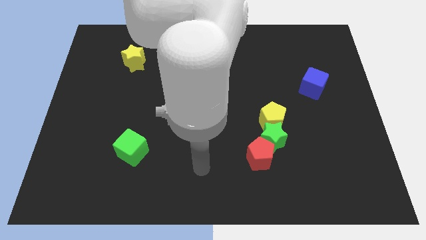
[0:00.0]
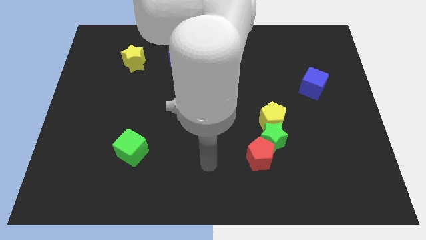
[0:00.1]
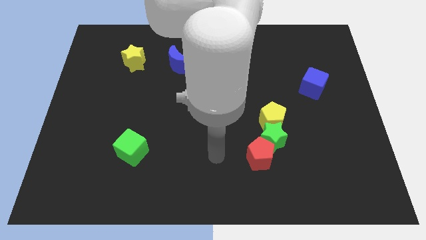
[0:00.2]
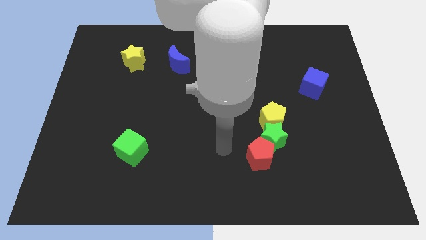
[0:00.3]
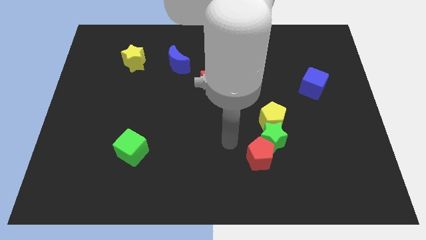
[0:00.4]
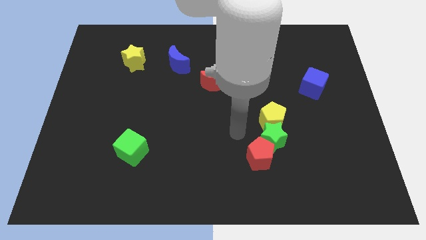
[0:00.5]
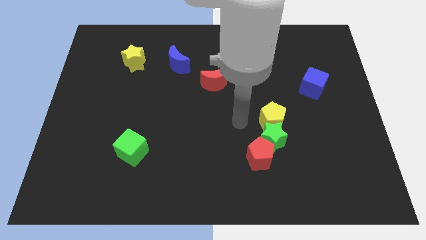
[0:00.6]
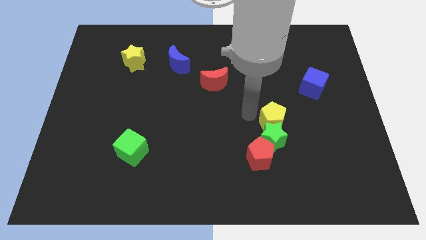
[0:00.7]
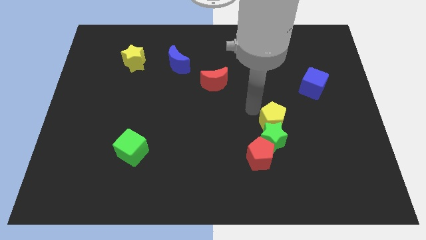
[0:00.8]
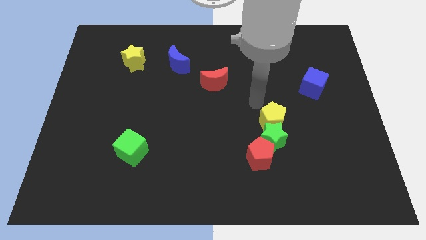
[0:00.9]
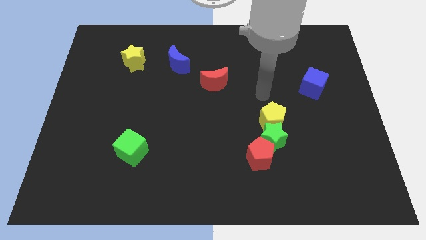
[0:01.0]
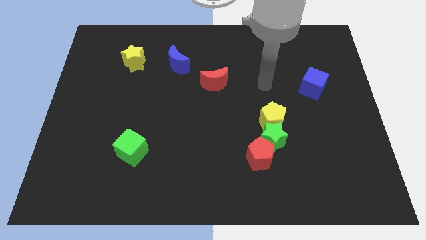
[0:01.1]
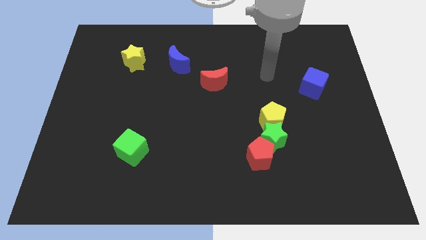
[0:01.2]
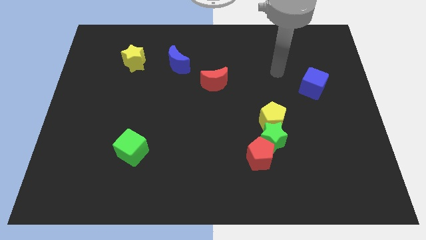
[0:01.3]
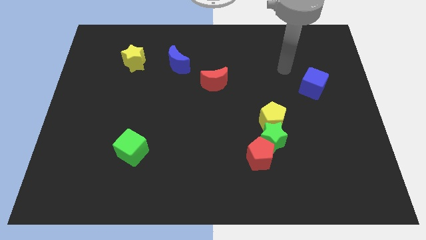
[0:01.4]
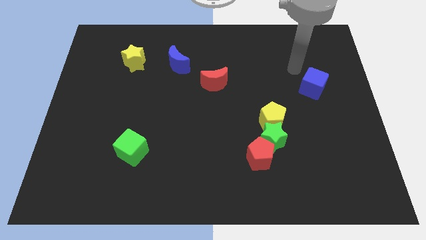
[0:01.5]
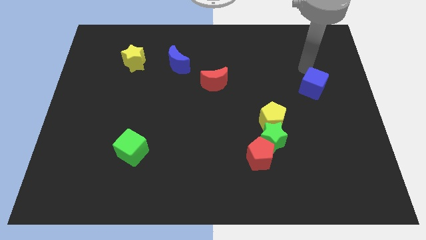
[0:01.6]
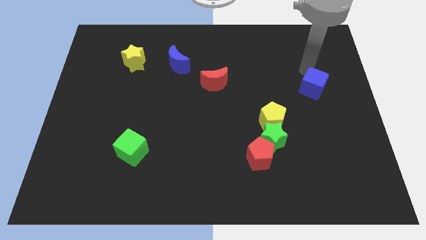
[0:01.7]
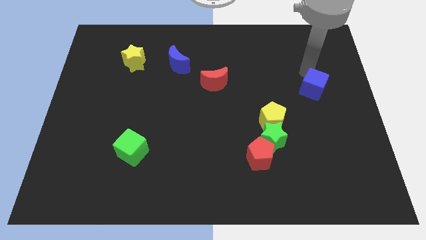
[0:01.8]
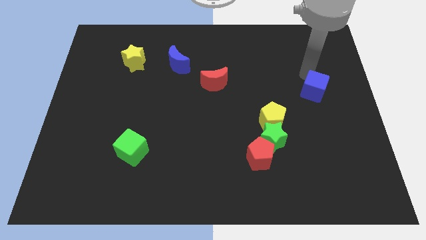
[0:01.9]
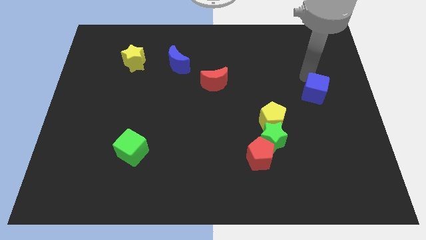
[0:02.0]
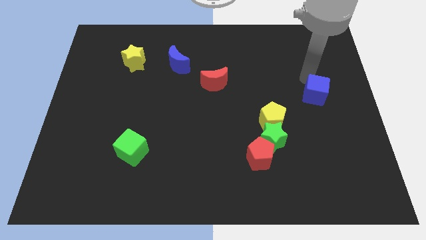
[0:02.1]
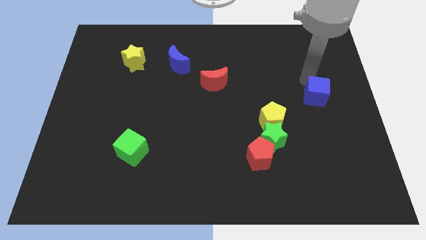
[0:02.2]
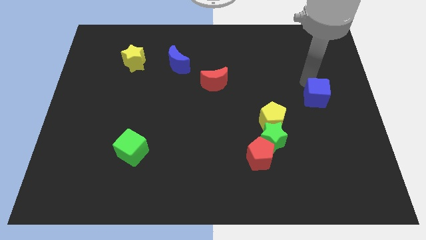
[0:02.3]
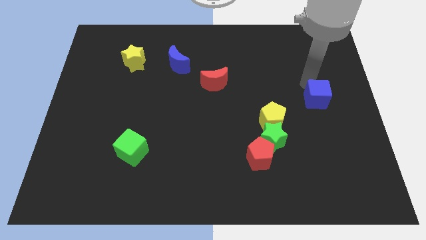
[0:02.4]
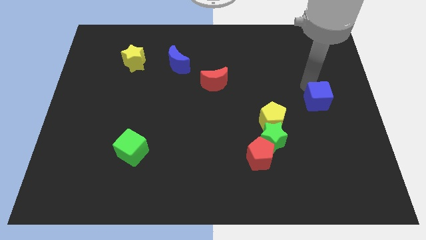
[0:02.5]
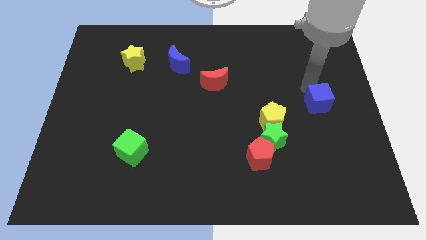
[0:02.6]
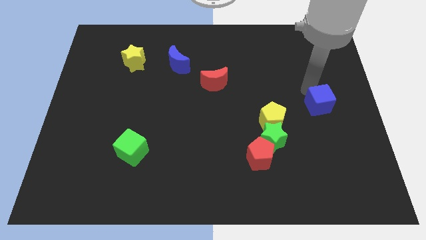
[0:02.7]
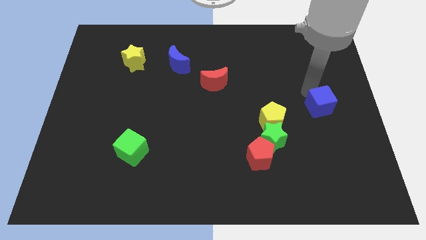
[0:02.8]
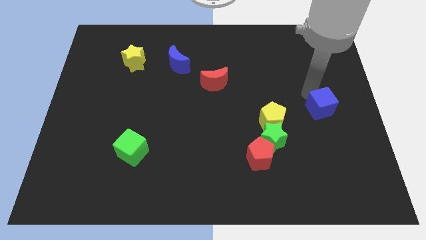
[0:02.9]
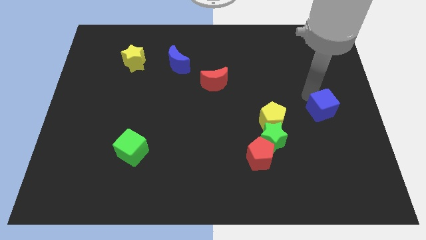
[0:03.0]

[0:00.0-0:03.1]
move the blue cube down a little

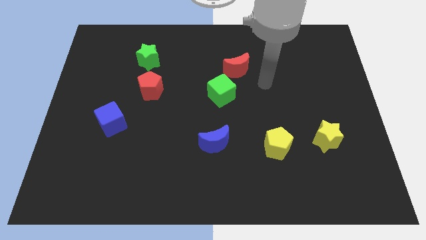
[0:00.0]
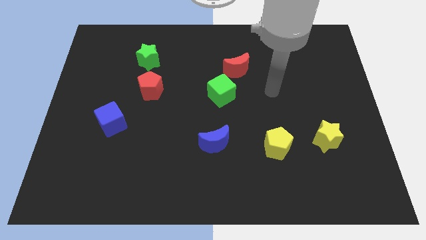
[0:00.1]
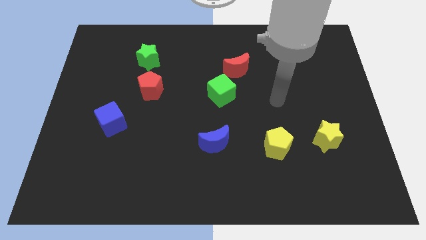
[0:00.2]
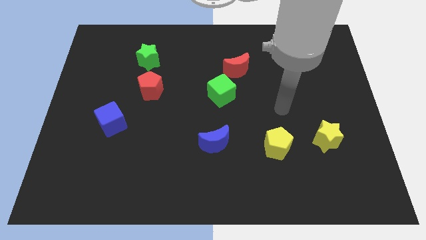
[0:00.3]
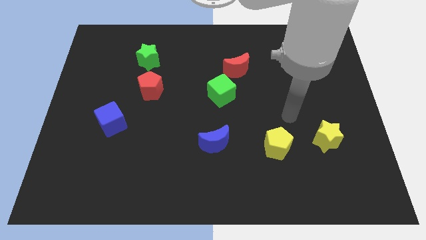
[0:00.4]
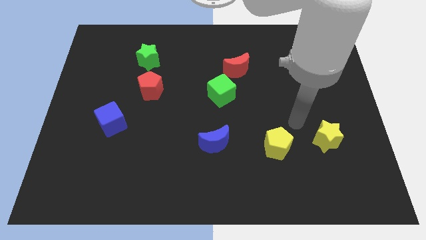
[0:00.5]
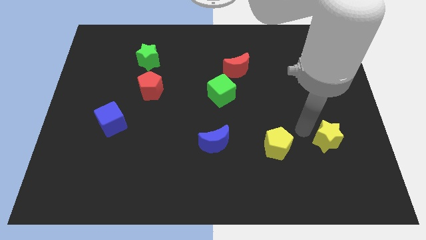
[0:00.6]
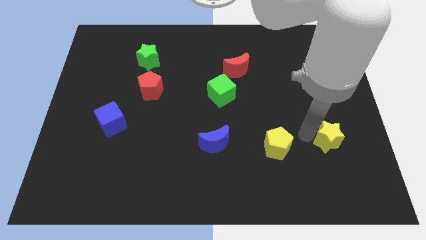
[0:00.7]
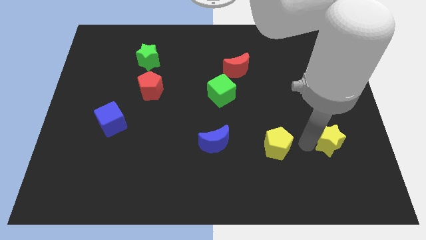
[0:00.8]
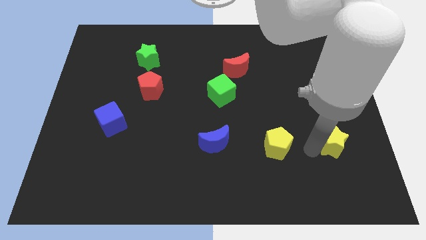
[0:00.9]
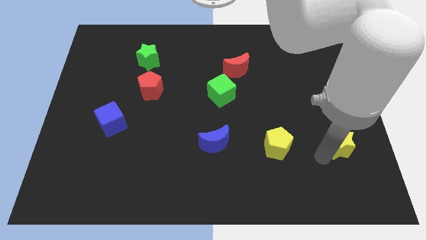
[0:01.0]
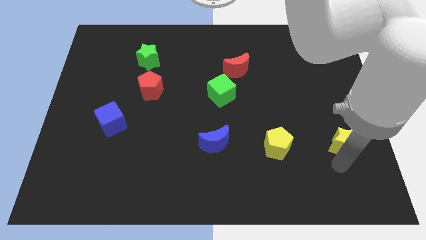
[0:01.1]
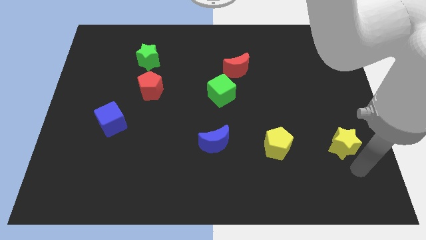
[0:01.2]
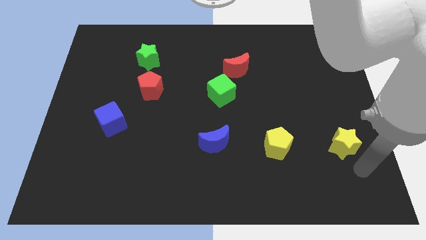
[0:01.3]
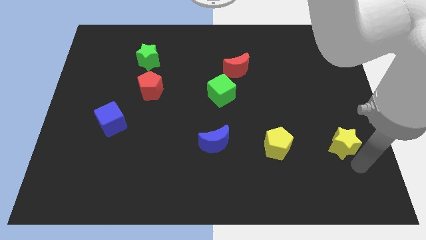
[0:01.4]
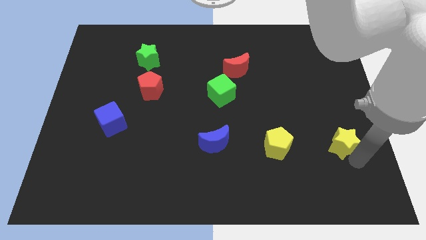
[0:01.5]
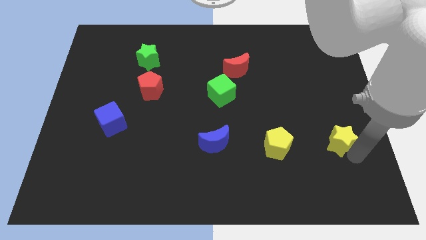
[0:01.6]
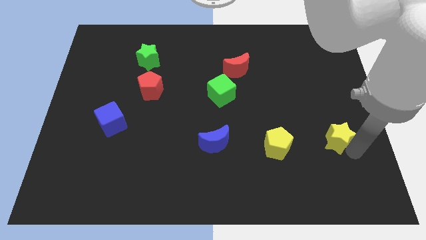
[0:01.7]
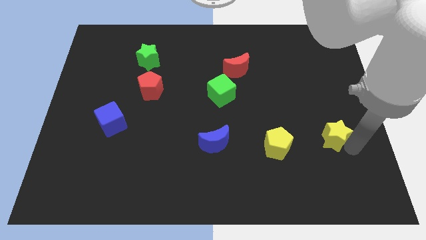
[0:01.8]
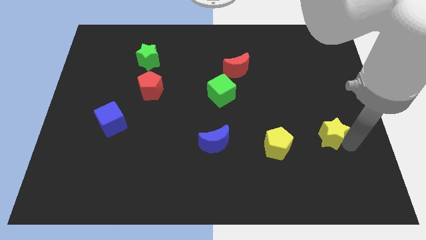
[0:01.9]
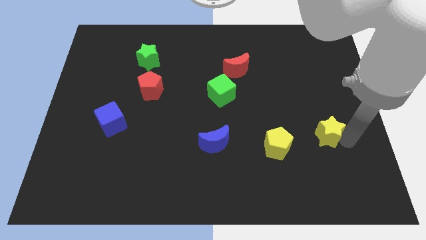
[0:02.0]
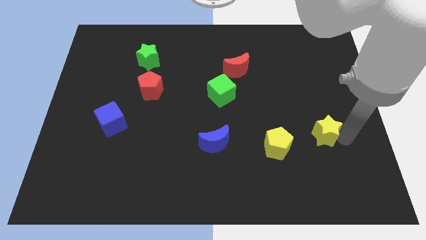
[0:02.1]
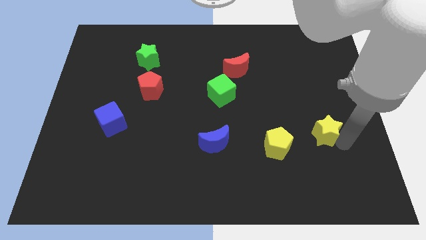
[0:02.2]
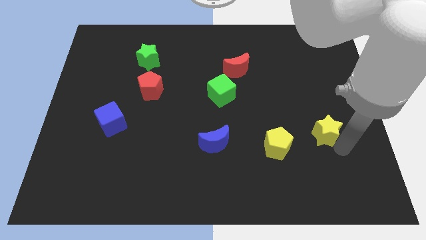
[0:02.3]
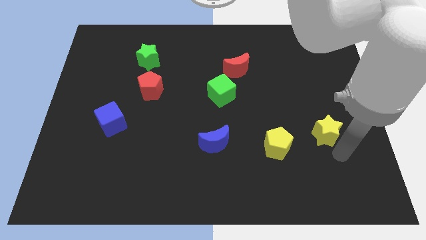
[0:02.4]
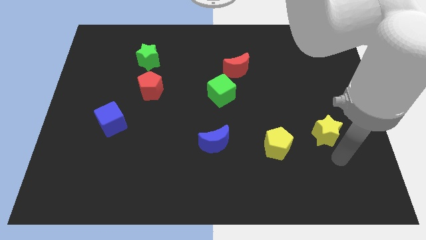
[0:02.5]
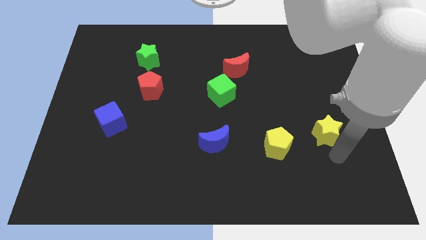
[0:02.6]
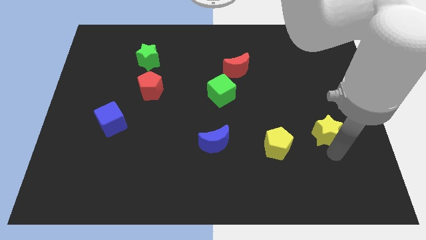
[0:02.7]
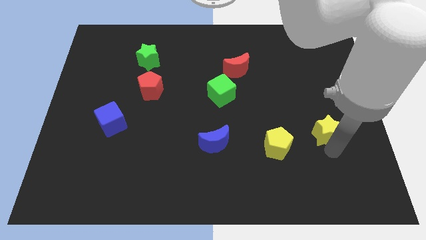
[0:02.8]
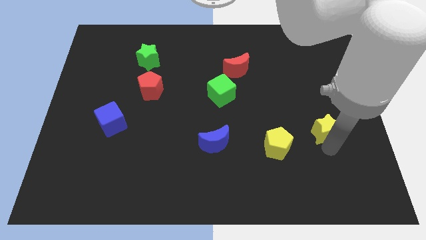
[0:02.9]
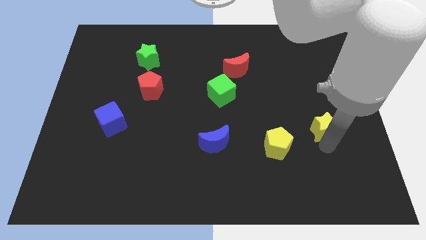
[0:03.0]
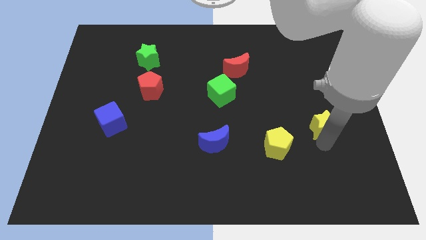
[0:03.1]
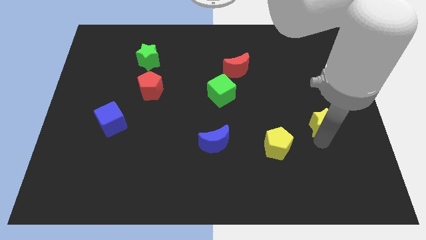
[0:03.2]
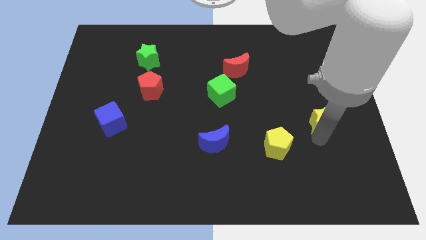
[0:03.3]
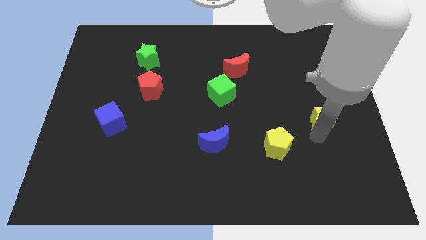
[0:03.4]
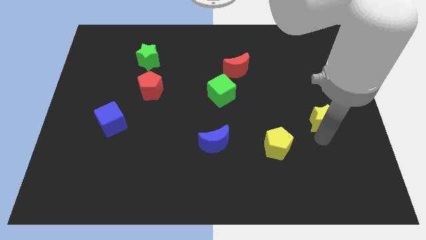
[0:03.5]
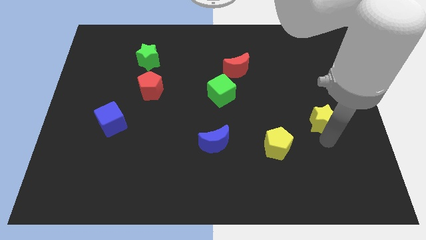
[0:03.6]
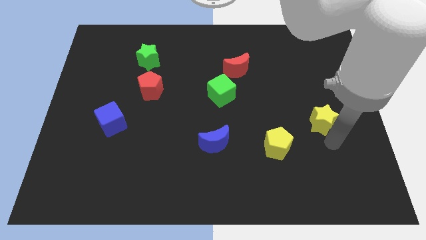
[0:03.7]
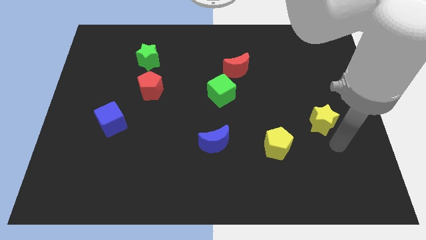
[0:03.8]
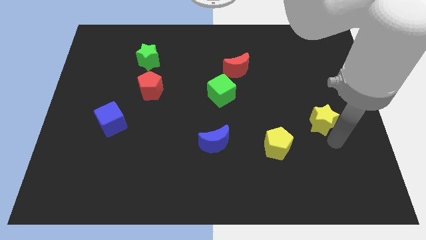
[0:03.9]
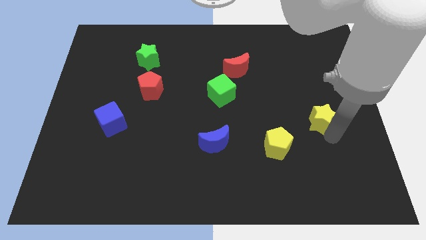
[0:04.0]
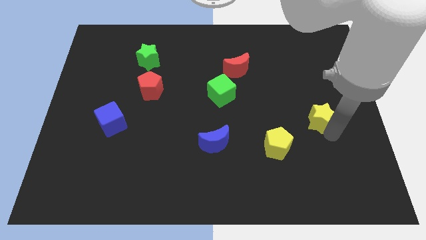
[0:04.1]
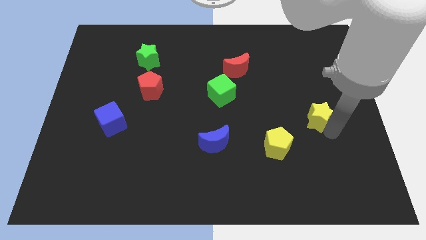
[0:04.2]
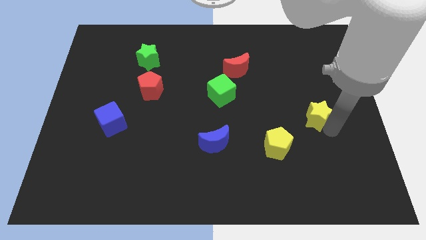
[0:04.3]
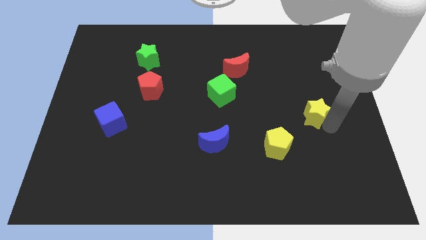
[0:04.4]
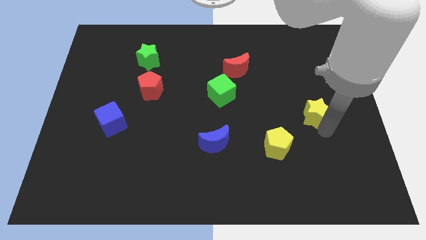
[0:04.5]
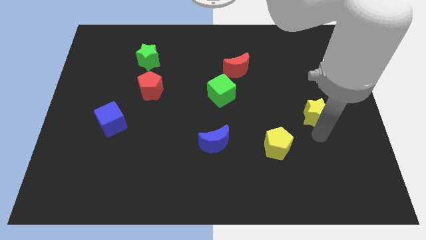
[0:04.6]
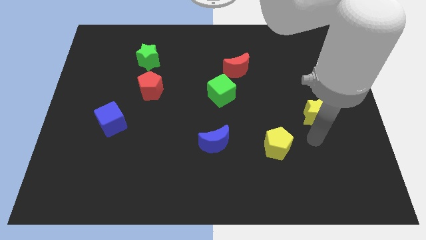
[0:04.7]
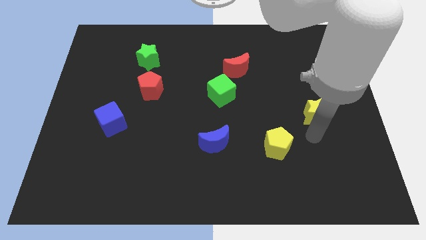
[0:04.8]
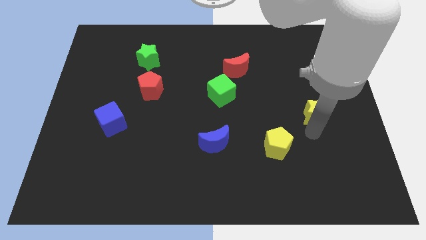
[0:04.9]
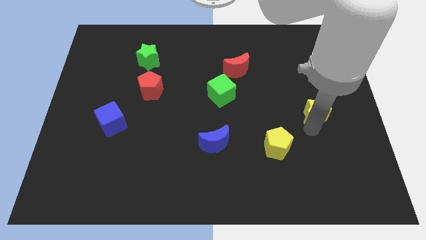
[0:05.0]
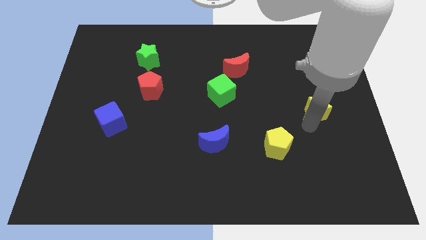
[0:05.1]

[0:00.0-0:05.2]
slide the yellow star up somewhat
